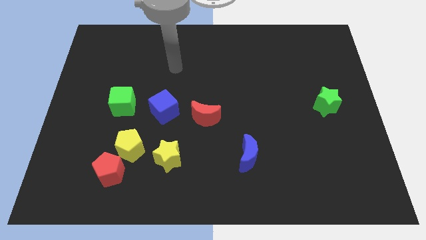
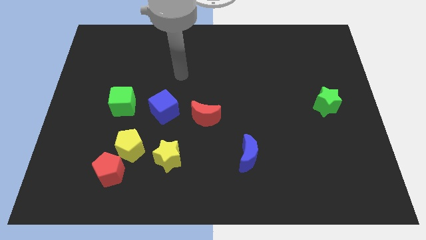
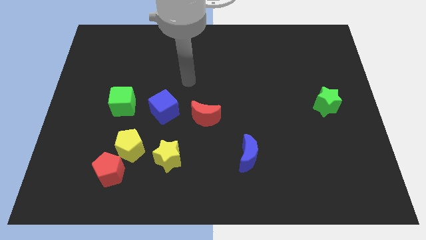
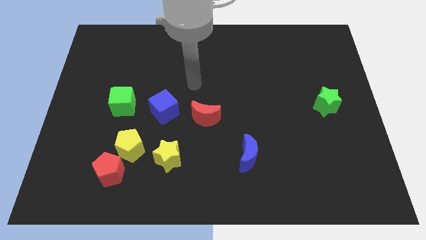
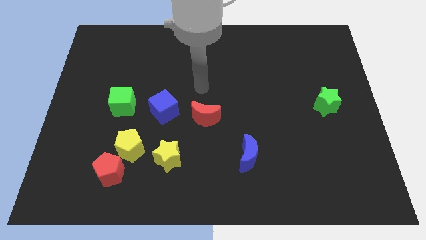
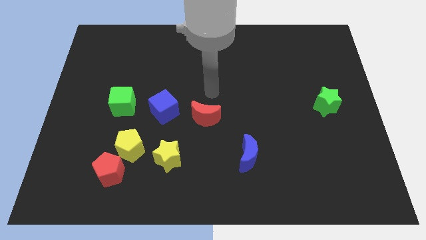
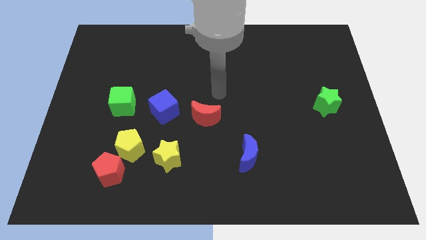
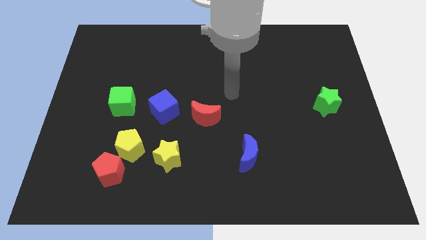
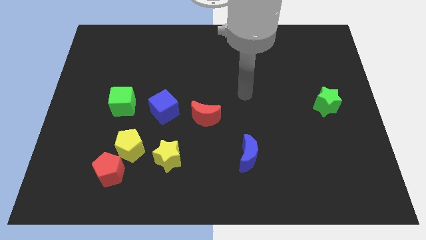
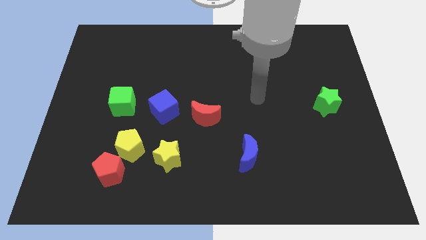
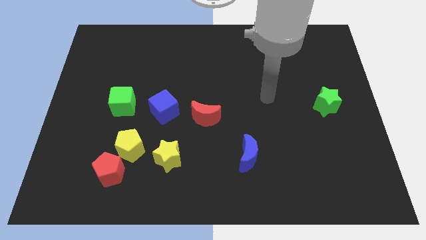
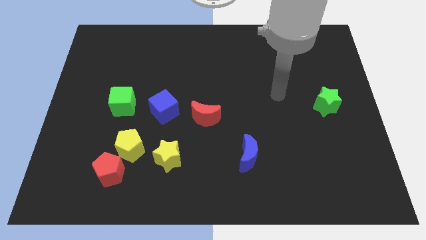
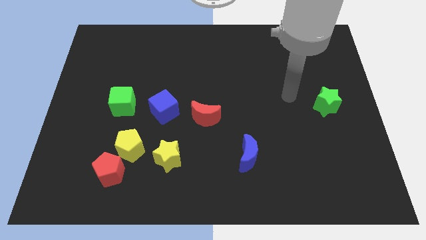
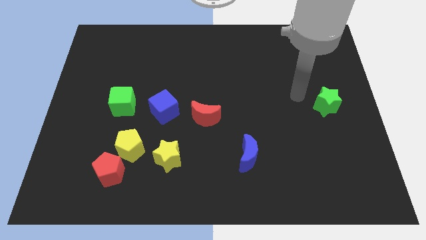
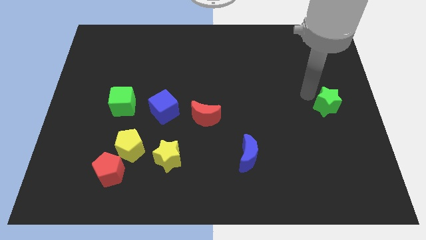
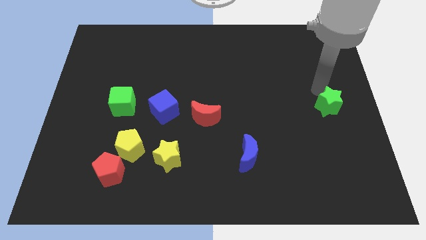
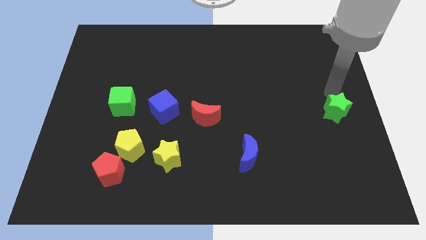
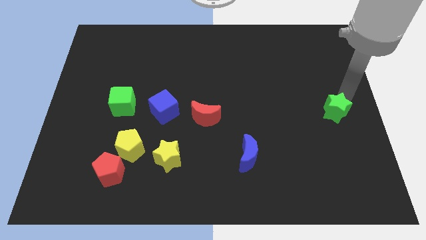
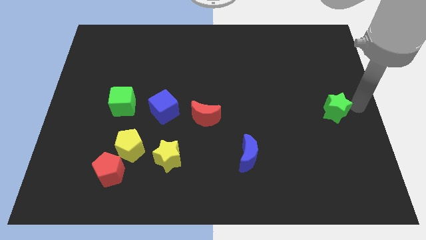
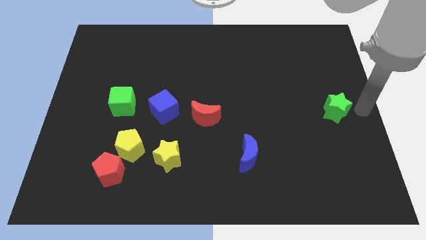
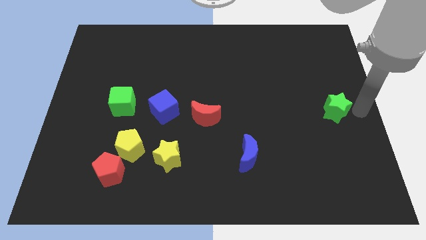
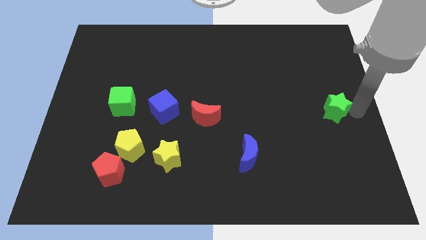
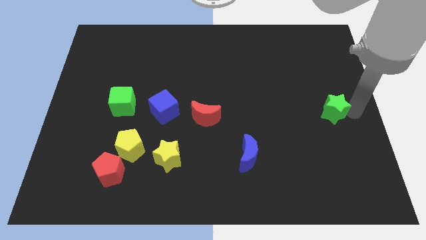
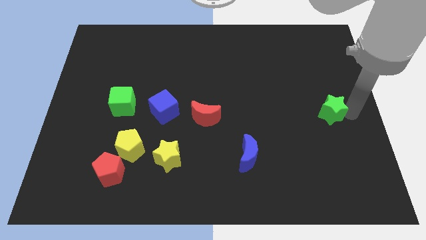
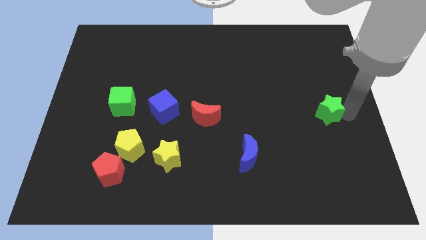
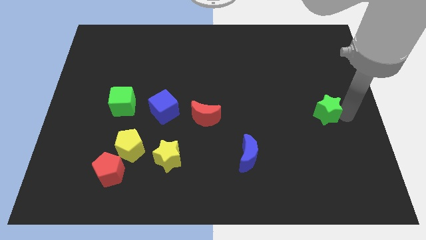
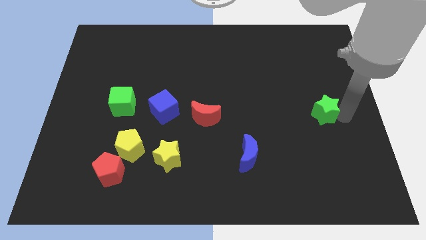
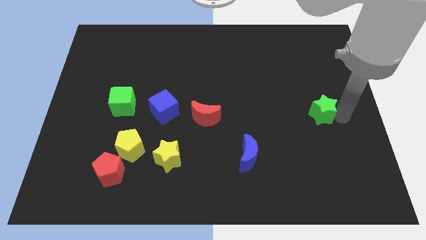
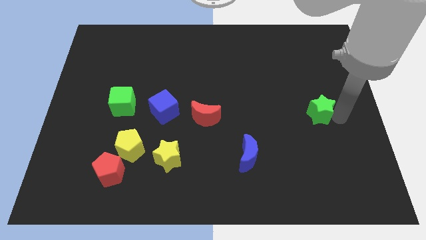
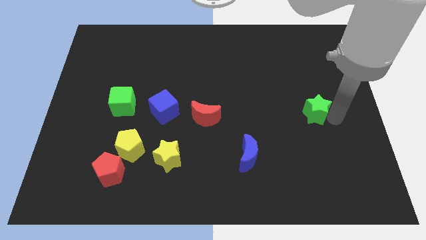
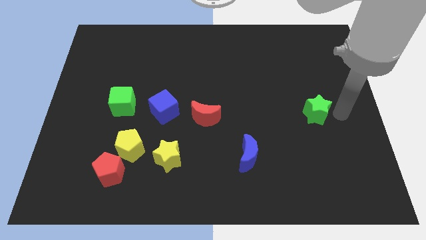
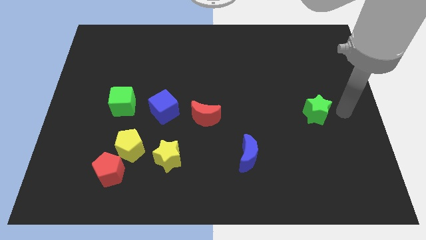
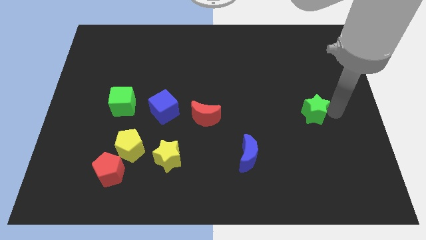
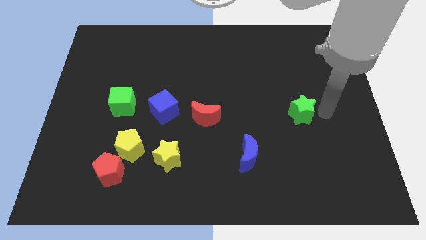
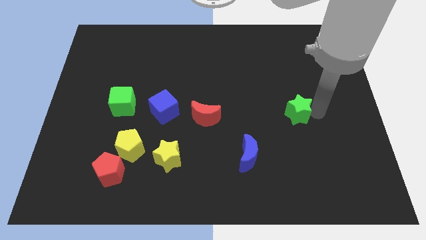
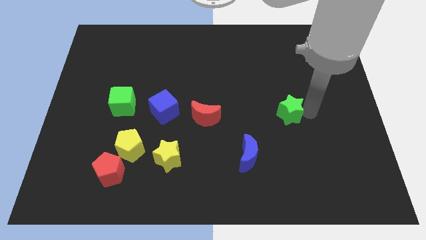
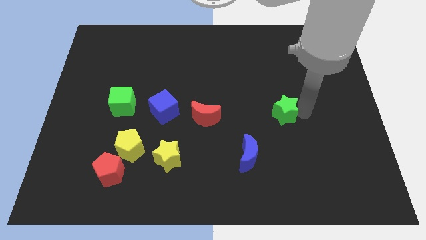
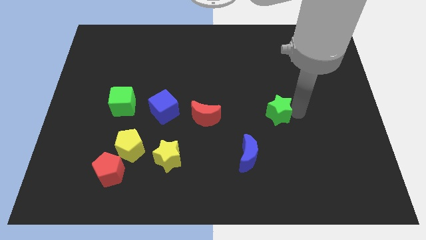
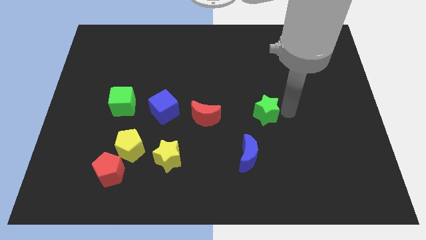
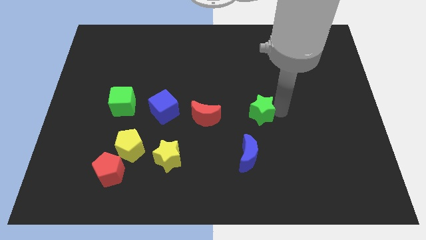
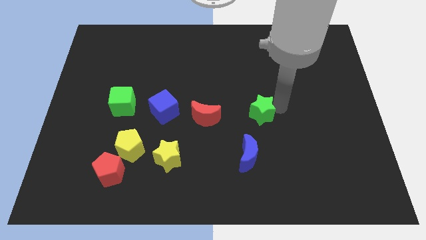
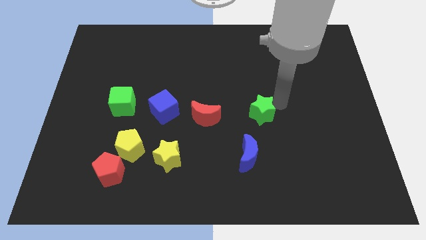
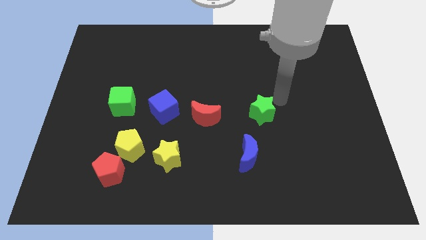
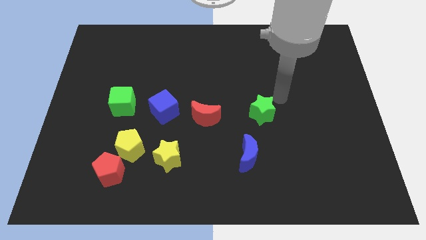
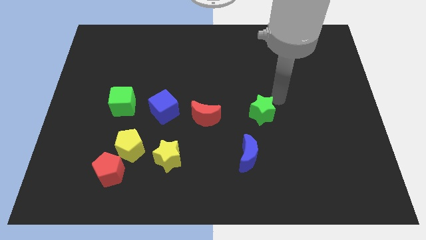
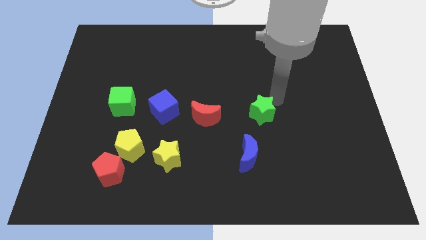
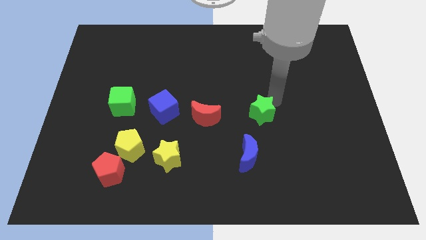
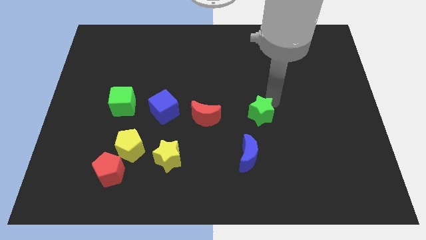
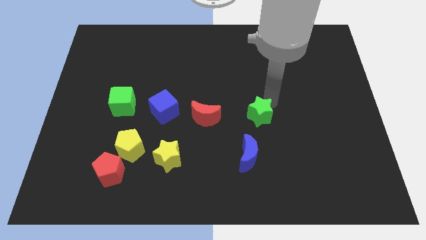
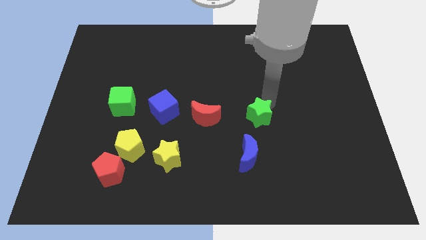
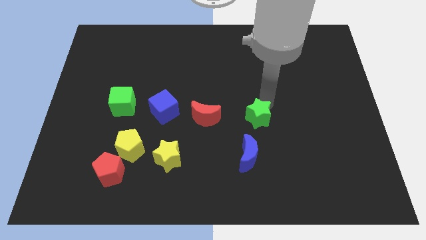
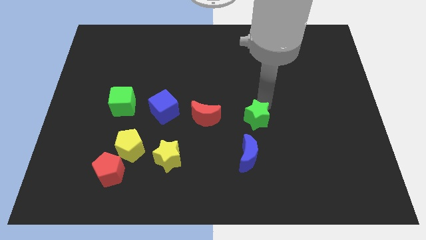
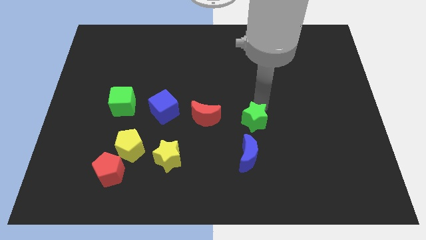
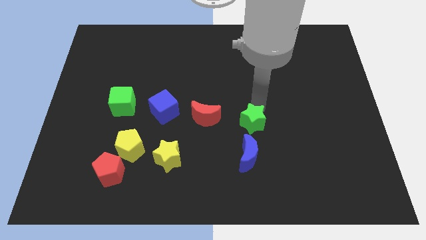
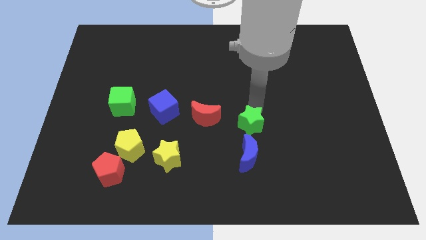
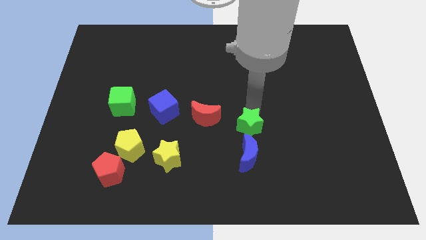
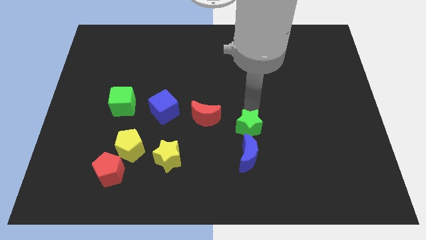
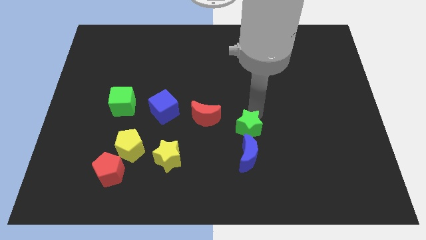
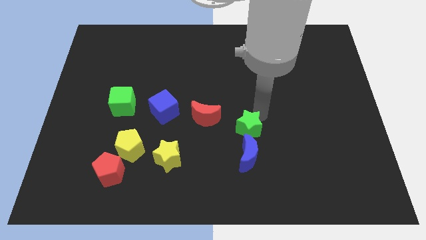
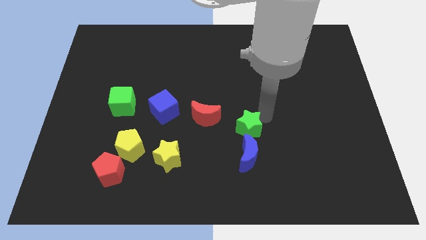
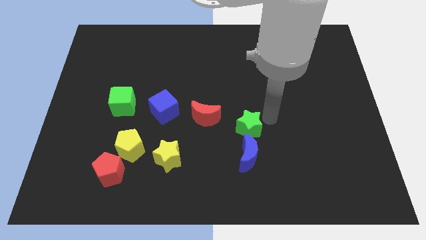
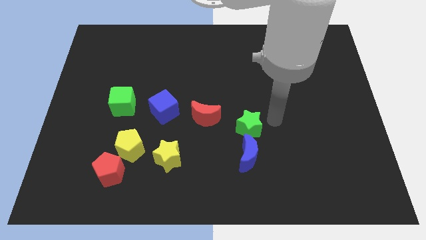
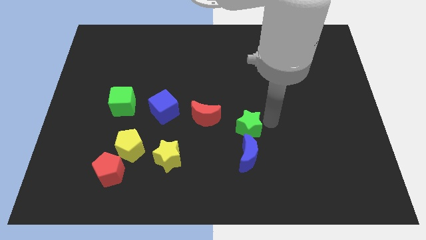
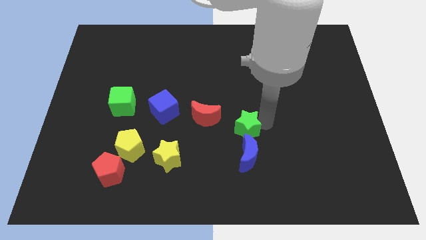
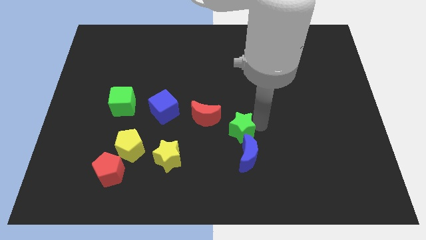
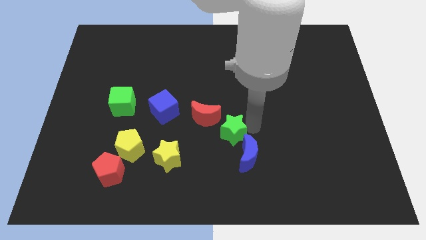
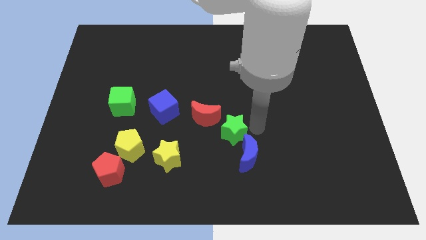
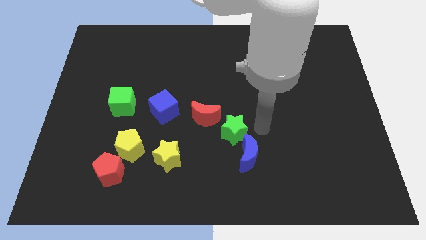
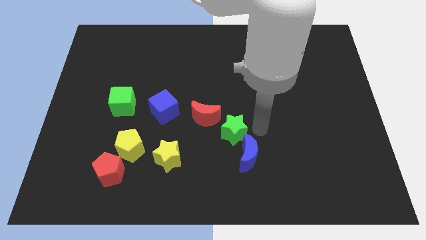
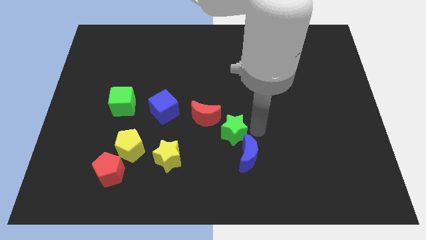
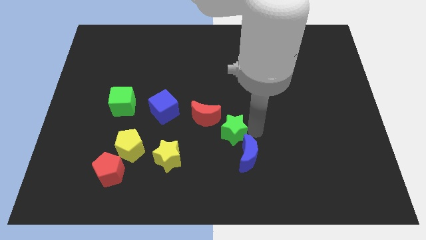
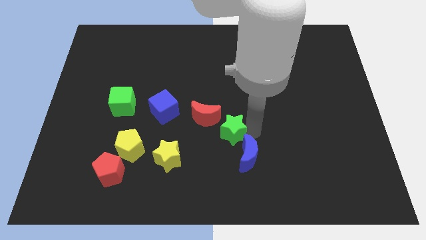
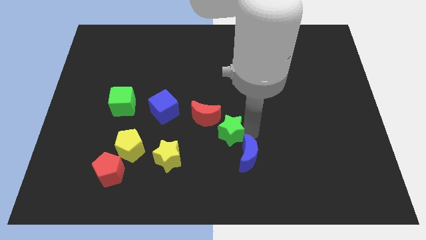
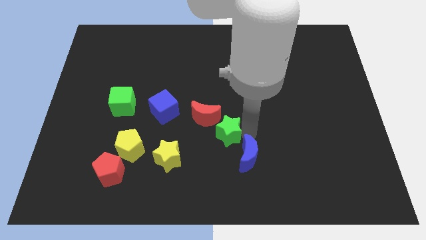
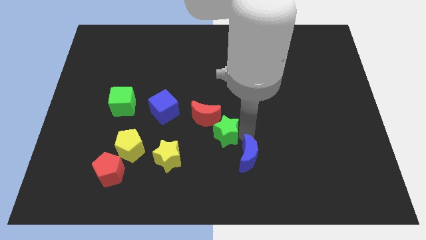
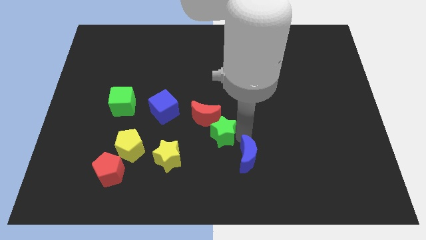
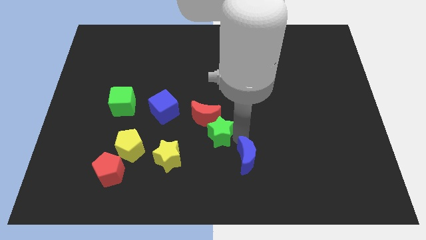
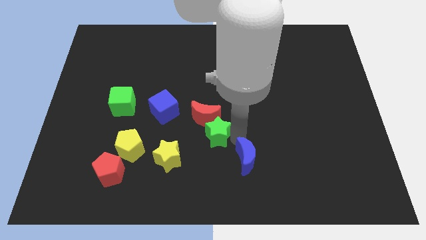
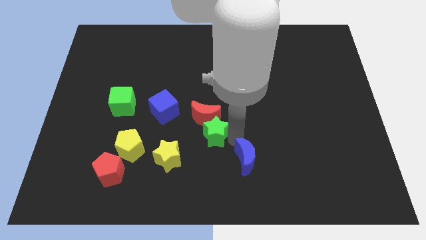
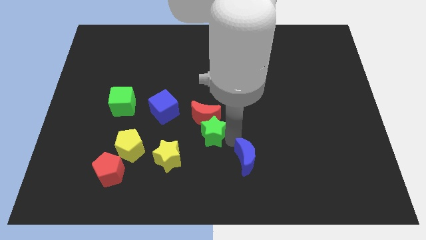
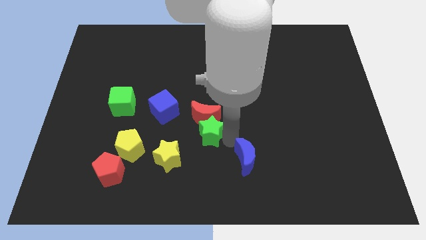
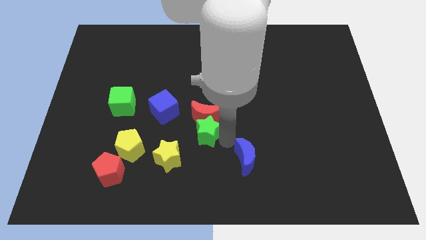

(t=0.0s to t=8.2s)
put the green star diagonally down and to the right of the blue cube
